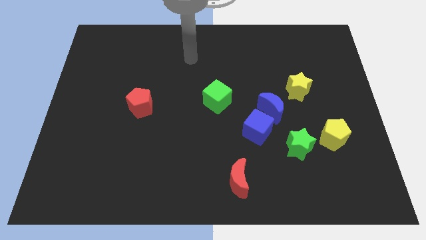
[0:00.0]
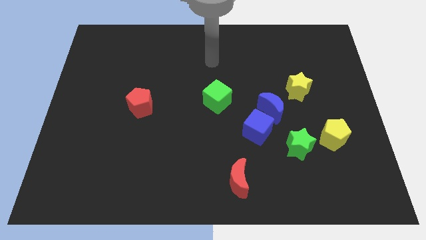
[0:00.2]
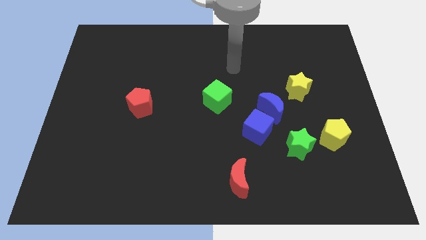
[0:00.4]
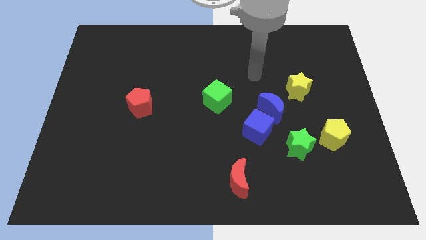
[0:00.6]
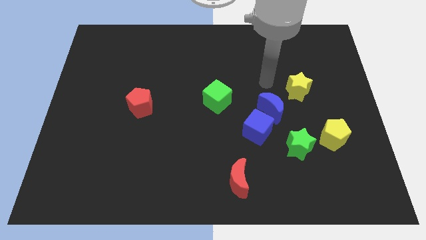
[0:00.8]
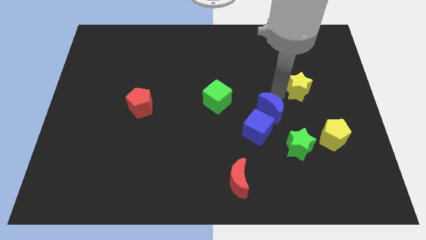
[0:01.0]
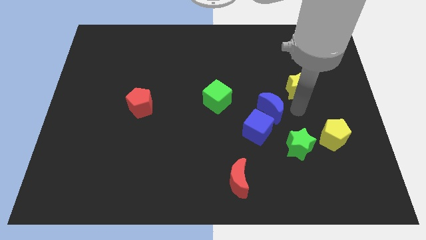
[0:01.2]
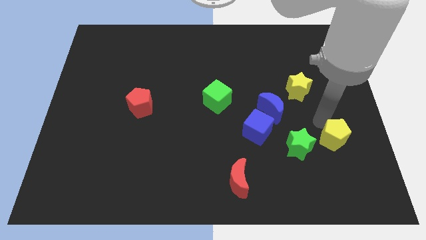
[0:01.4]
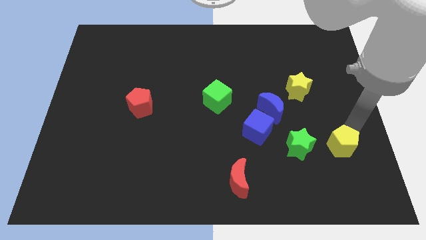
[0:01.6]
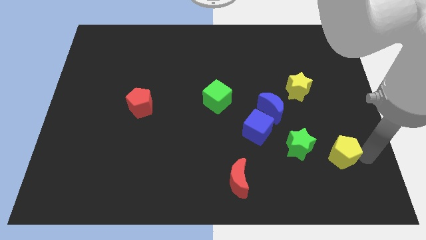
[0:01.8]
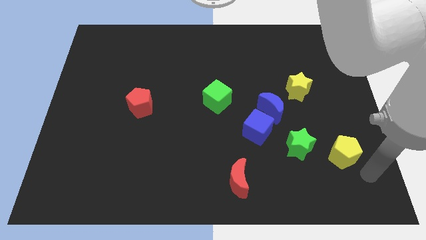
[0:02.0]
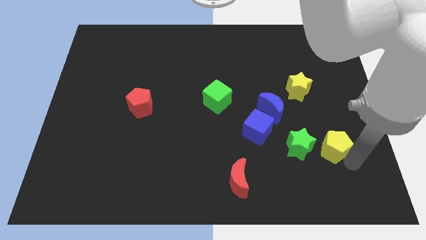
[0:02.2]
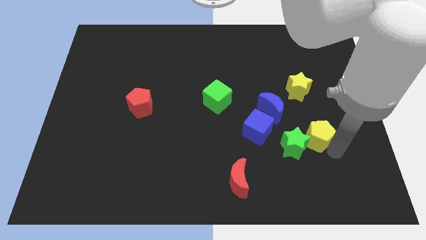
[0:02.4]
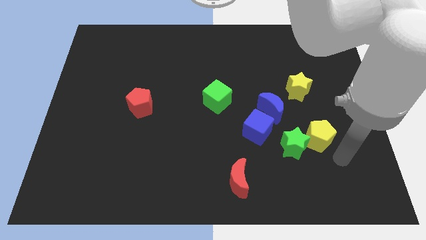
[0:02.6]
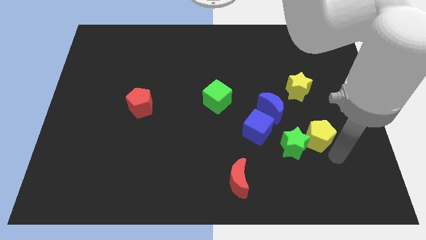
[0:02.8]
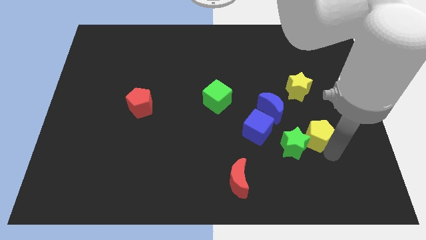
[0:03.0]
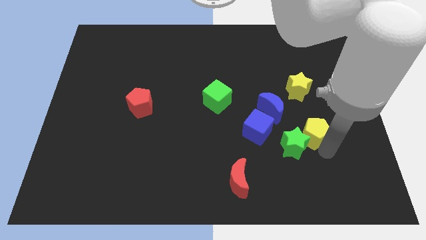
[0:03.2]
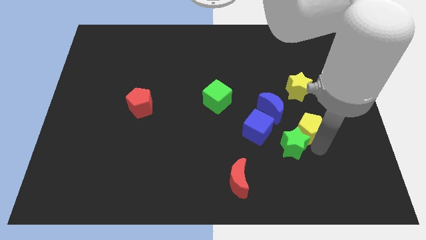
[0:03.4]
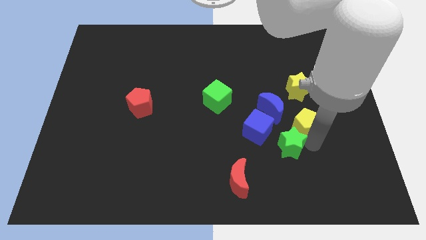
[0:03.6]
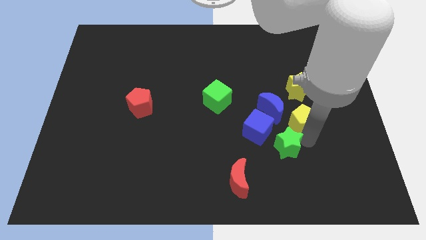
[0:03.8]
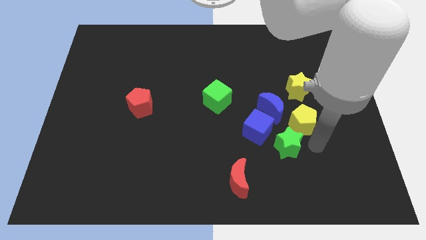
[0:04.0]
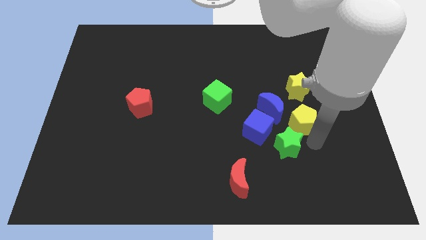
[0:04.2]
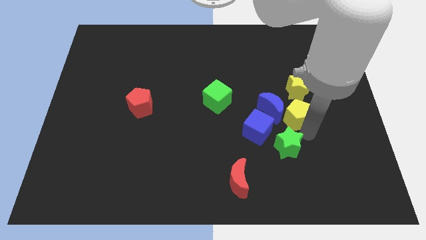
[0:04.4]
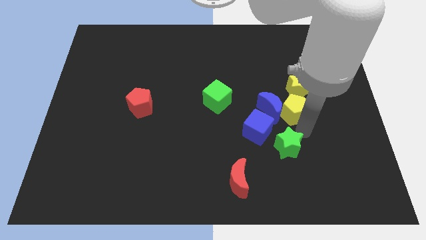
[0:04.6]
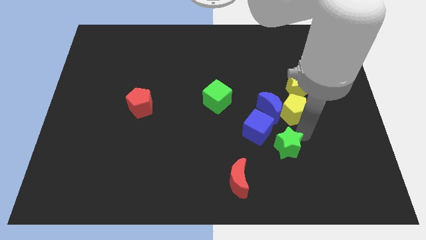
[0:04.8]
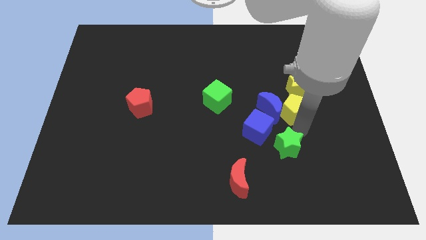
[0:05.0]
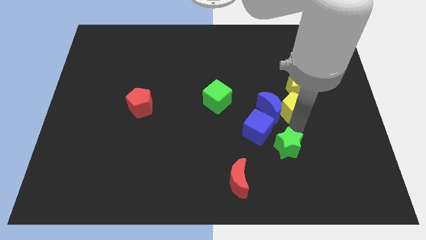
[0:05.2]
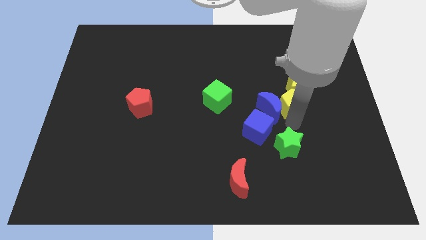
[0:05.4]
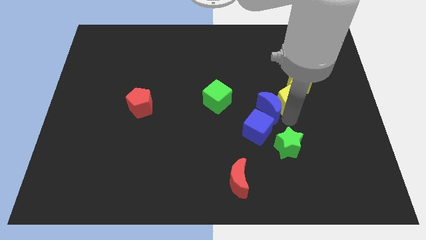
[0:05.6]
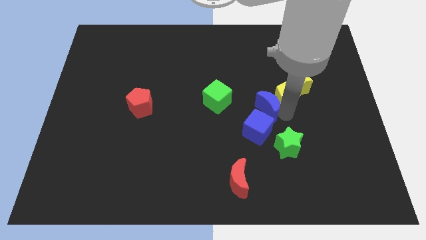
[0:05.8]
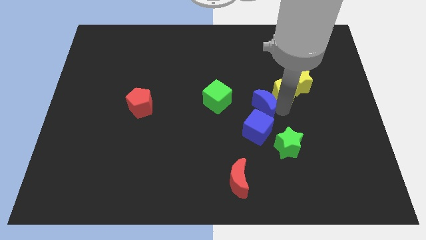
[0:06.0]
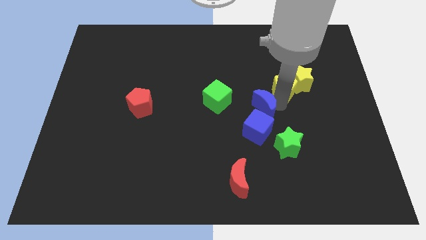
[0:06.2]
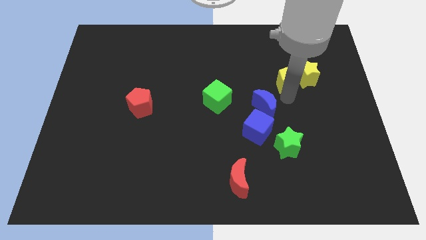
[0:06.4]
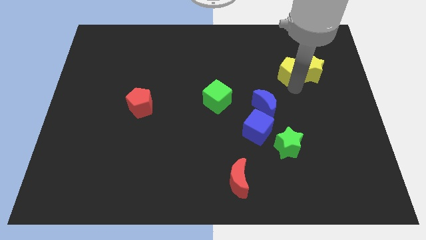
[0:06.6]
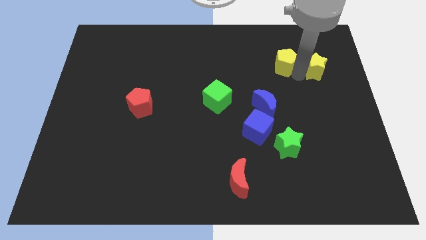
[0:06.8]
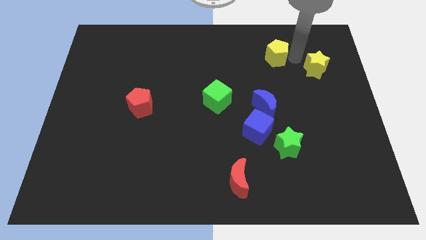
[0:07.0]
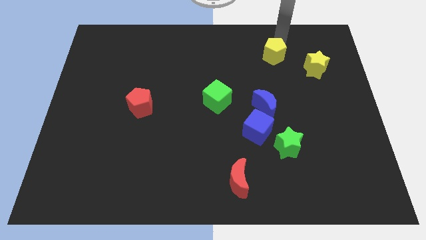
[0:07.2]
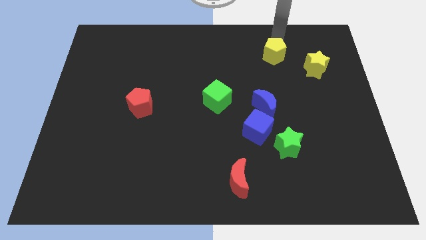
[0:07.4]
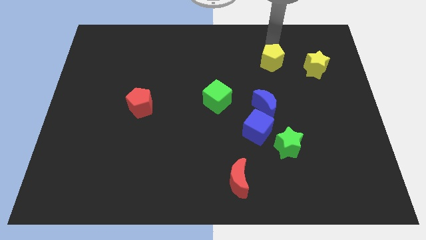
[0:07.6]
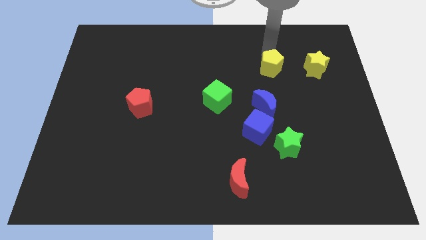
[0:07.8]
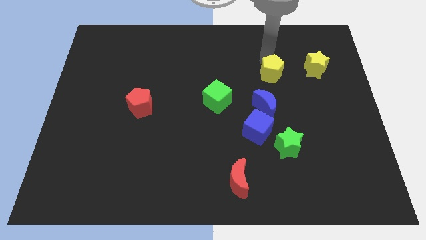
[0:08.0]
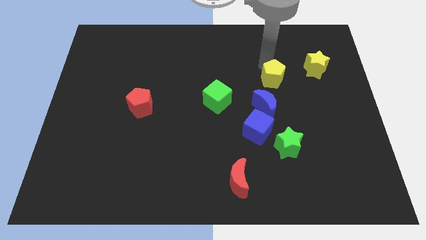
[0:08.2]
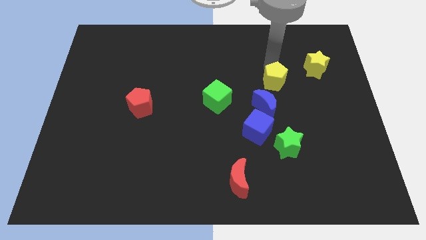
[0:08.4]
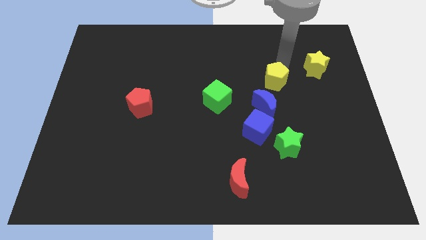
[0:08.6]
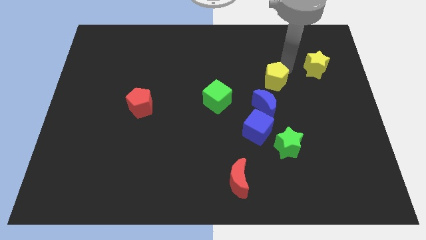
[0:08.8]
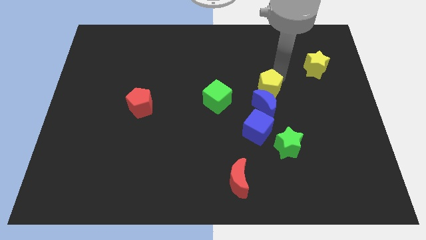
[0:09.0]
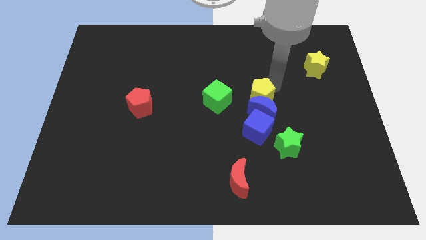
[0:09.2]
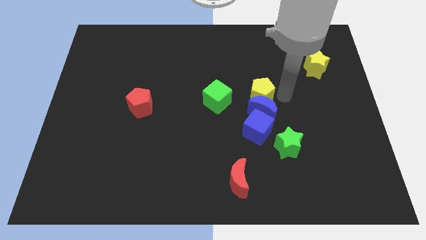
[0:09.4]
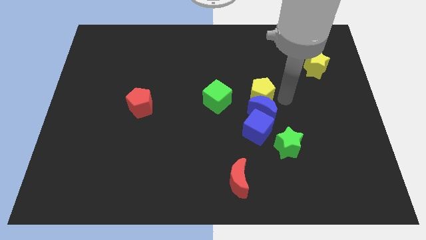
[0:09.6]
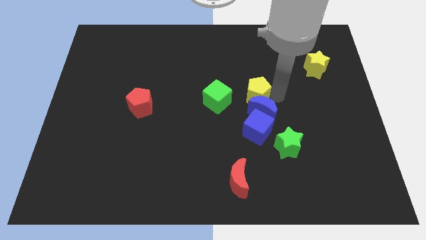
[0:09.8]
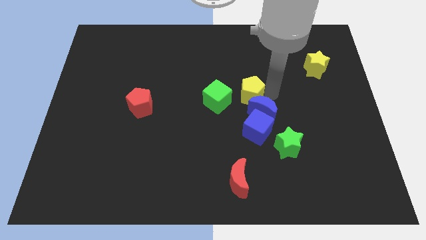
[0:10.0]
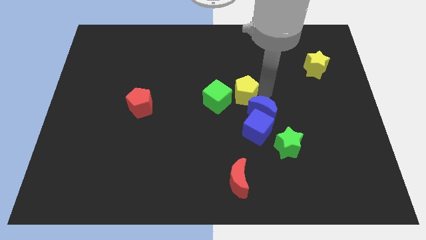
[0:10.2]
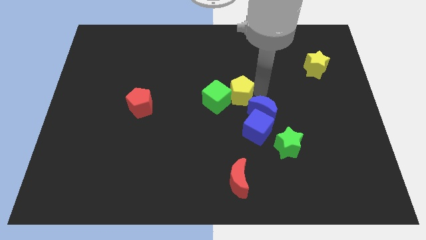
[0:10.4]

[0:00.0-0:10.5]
slide the yellow pentagon to the green cube

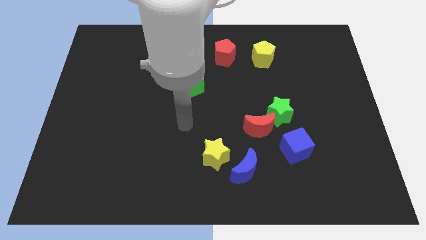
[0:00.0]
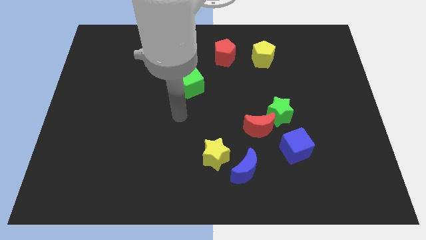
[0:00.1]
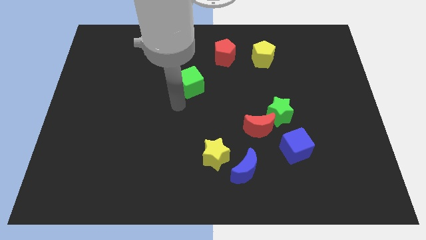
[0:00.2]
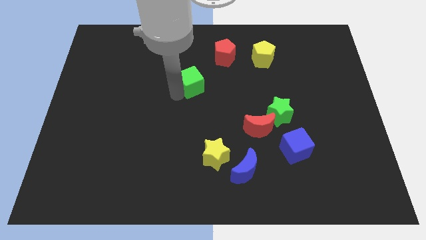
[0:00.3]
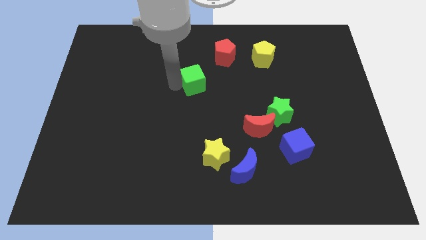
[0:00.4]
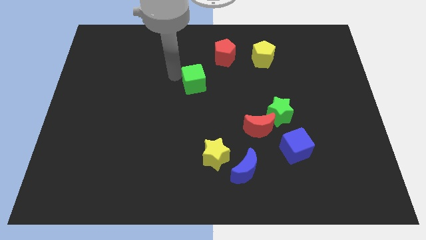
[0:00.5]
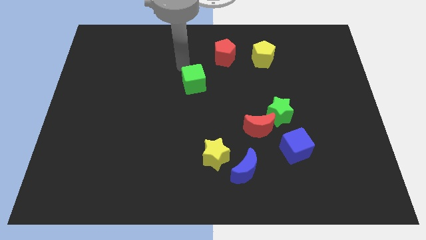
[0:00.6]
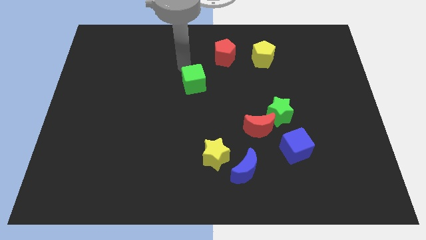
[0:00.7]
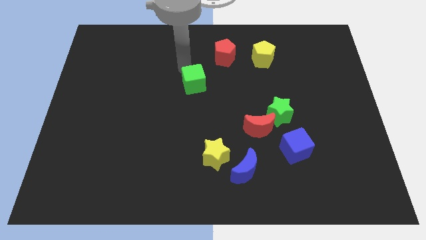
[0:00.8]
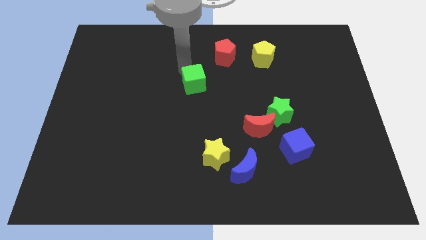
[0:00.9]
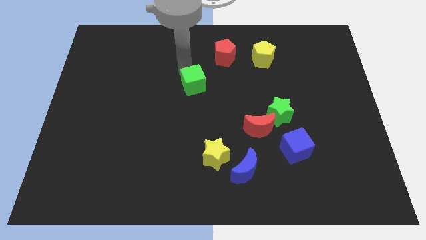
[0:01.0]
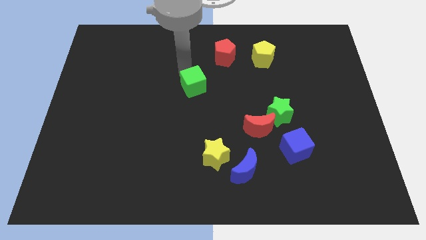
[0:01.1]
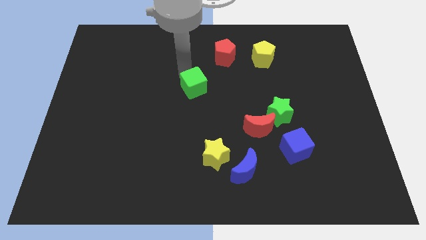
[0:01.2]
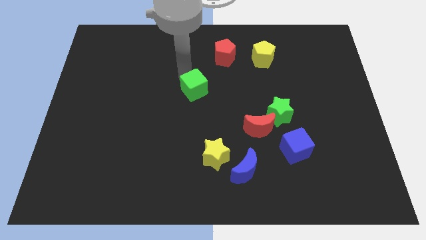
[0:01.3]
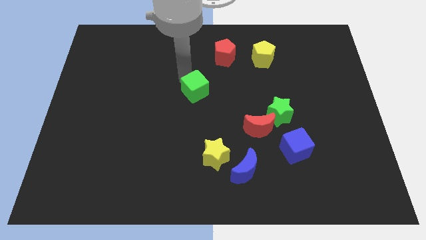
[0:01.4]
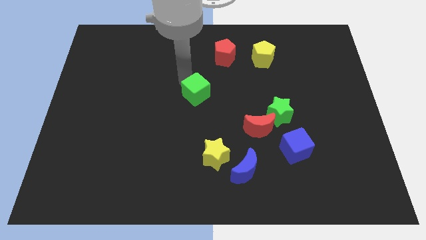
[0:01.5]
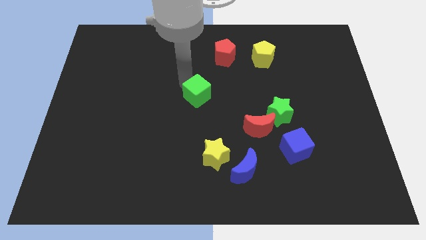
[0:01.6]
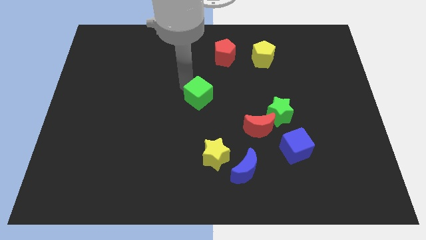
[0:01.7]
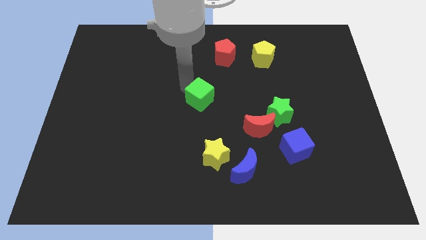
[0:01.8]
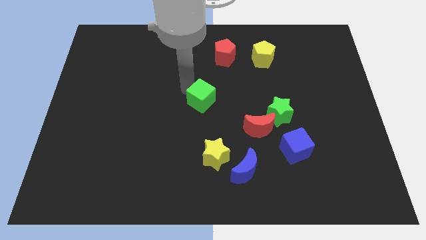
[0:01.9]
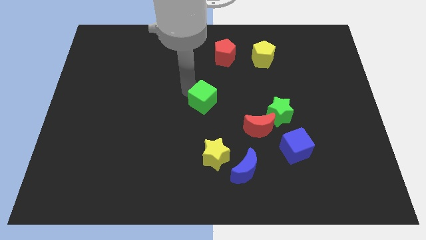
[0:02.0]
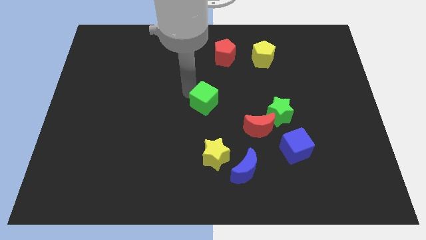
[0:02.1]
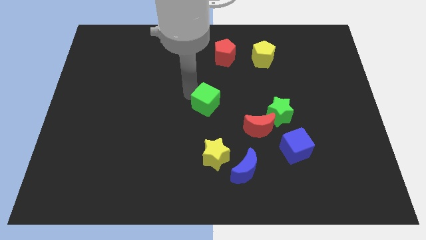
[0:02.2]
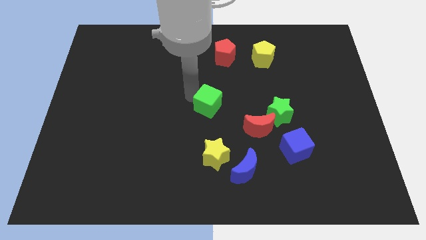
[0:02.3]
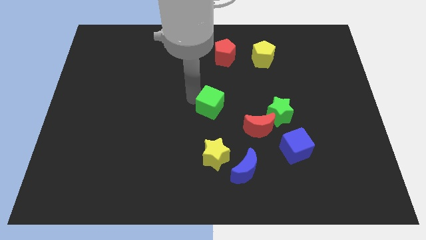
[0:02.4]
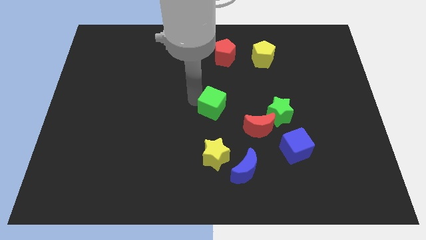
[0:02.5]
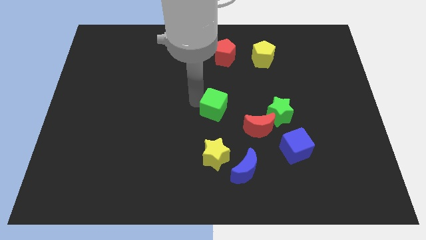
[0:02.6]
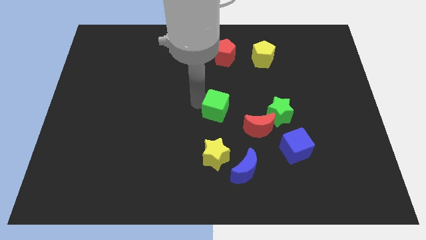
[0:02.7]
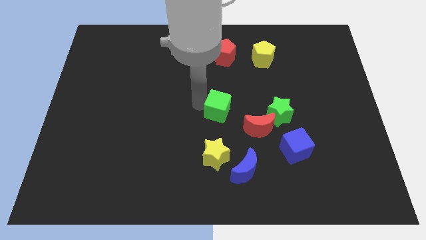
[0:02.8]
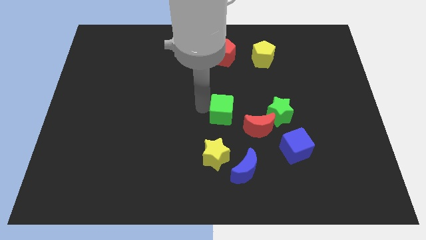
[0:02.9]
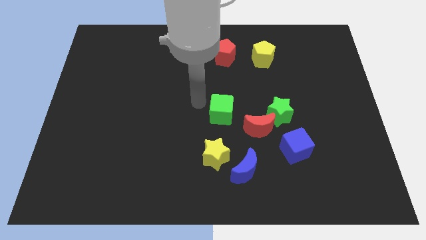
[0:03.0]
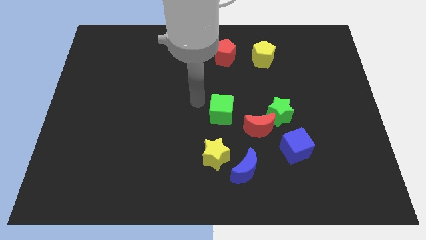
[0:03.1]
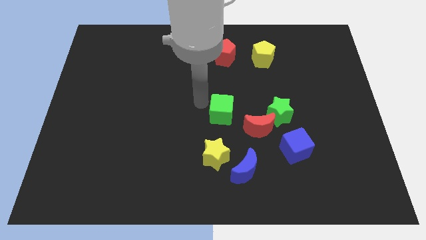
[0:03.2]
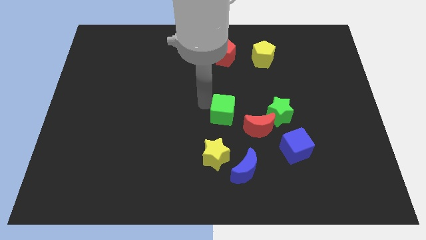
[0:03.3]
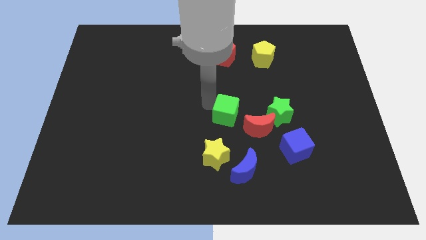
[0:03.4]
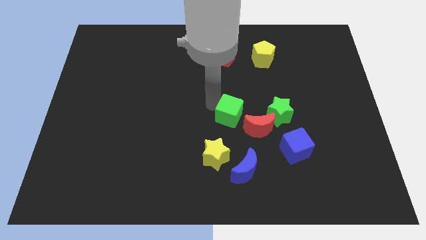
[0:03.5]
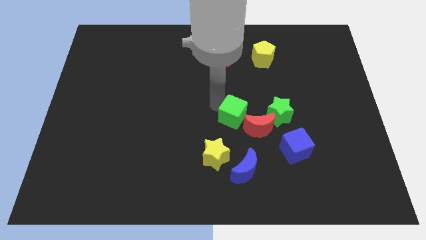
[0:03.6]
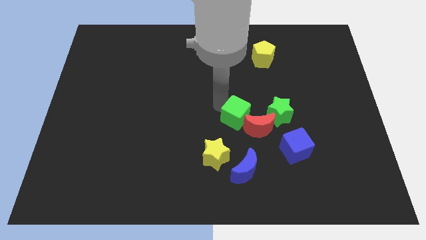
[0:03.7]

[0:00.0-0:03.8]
slide the green cube next to the red moon
